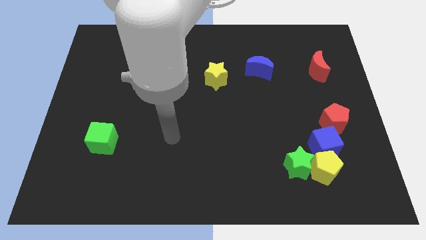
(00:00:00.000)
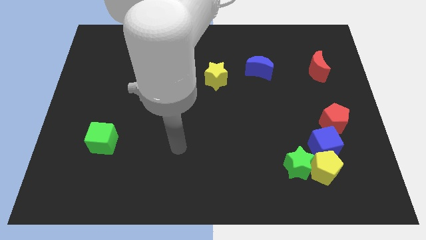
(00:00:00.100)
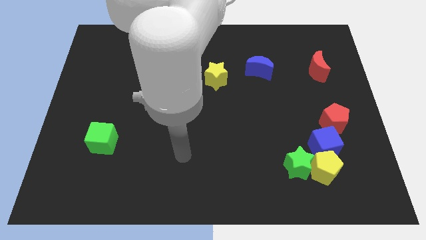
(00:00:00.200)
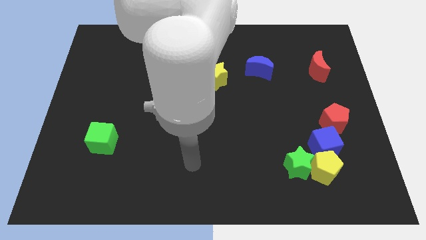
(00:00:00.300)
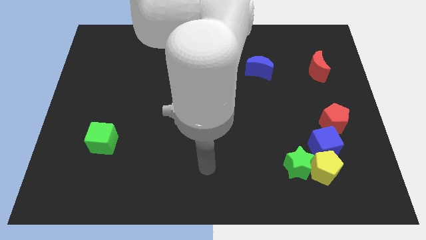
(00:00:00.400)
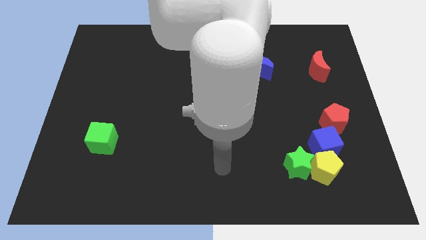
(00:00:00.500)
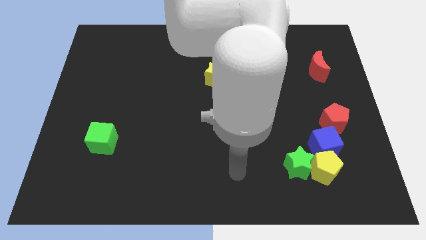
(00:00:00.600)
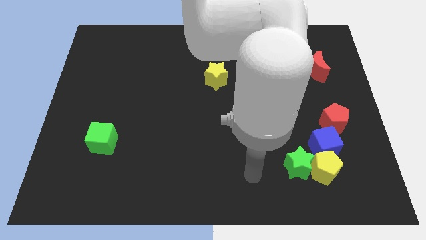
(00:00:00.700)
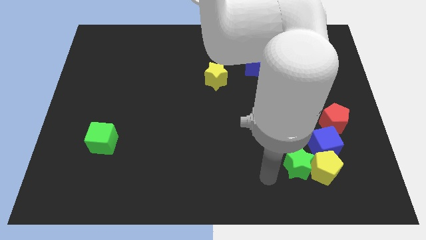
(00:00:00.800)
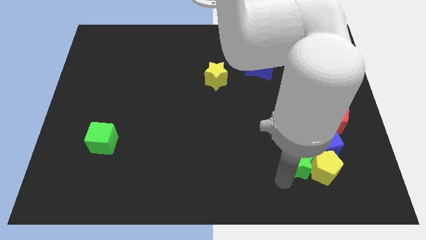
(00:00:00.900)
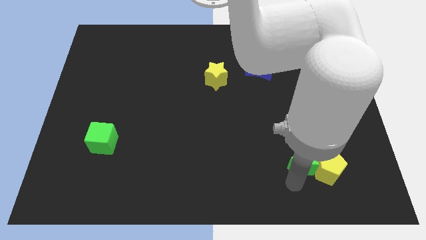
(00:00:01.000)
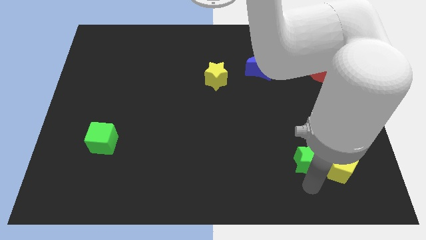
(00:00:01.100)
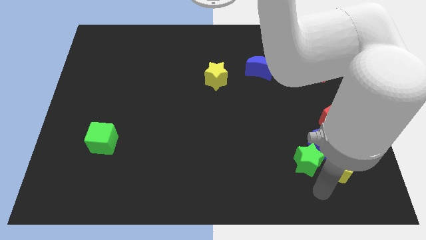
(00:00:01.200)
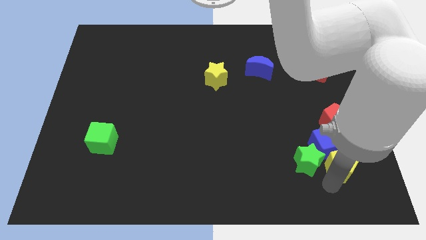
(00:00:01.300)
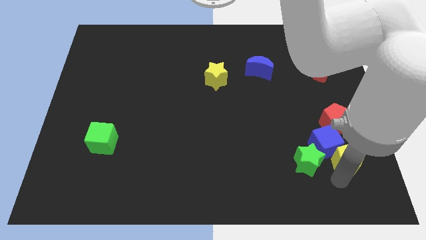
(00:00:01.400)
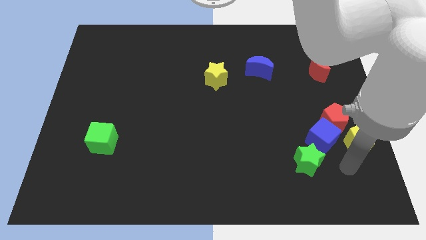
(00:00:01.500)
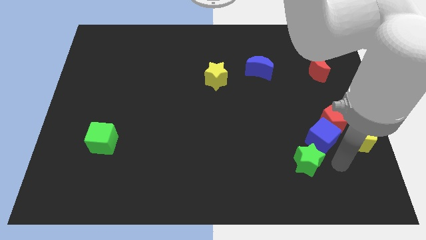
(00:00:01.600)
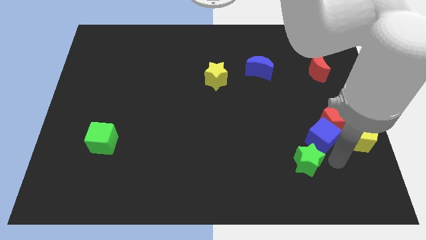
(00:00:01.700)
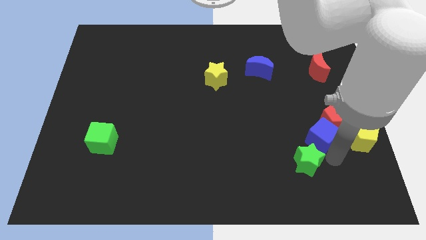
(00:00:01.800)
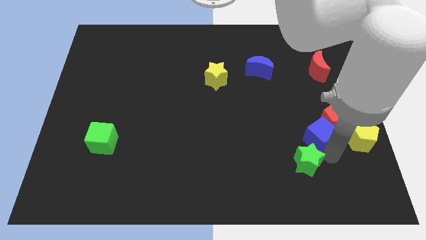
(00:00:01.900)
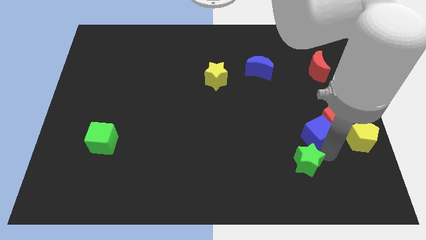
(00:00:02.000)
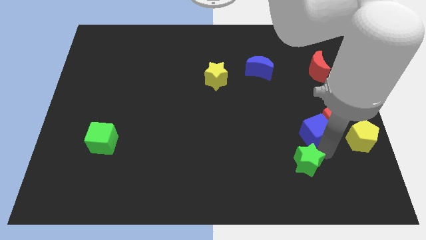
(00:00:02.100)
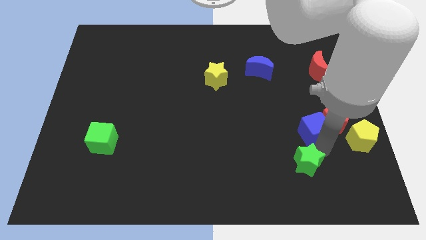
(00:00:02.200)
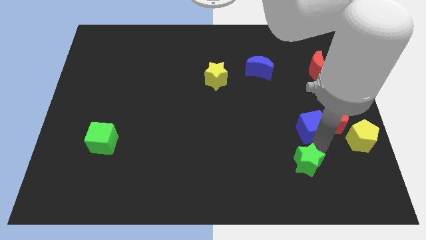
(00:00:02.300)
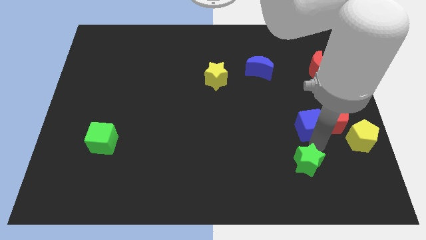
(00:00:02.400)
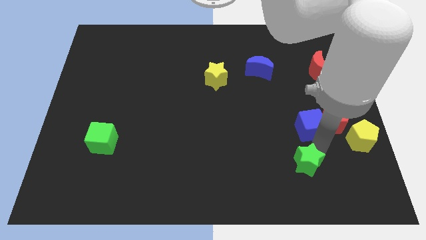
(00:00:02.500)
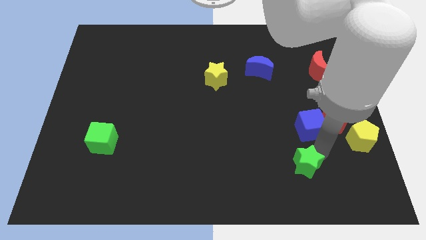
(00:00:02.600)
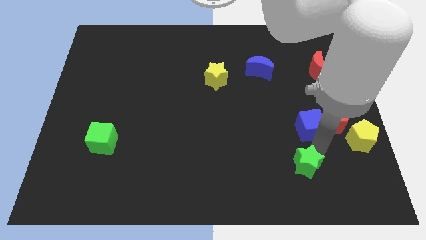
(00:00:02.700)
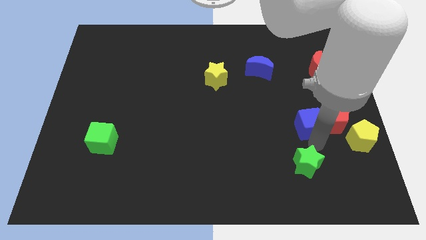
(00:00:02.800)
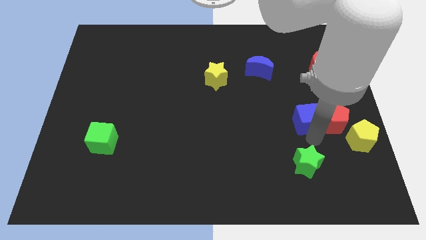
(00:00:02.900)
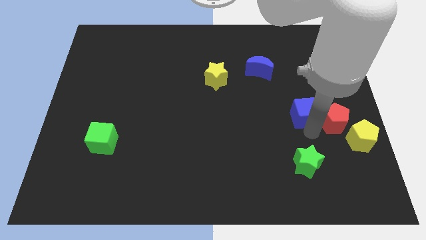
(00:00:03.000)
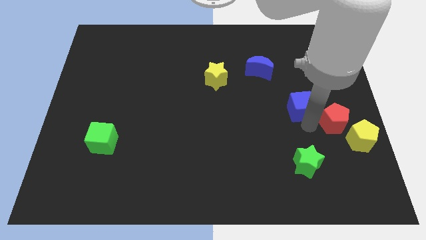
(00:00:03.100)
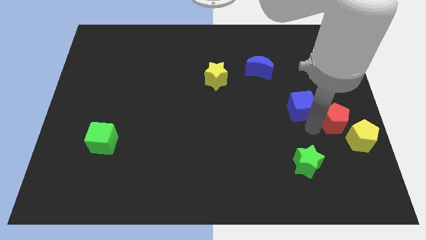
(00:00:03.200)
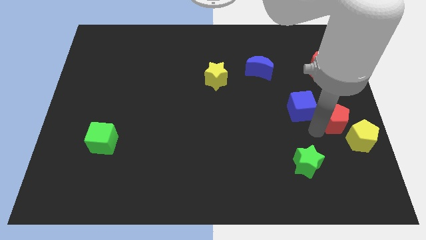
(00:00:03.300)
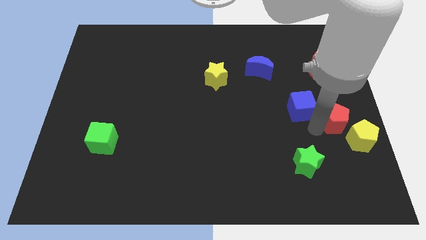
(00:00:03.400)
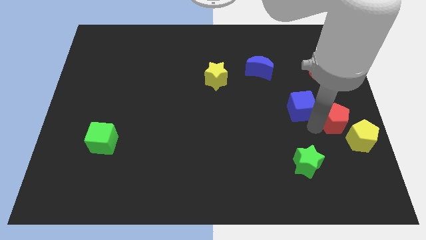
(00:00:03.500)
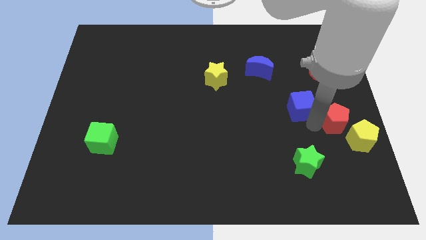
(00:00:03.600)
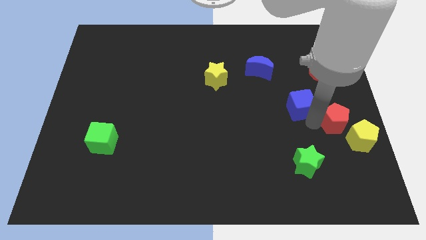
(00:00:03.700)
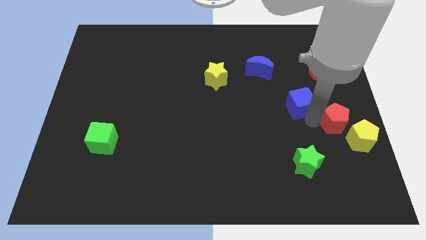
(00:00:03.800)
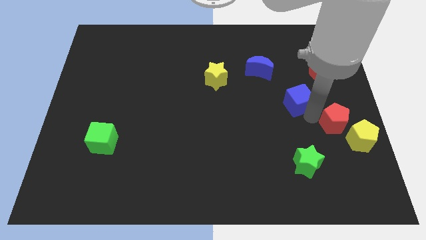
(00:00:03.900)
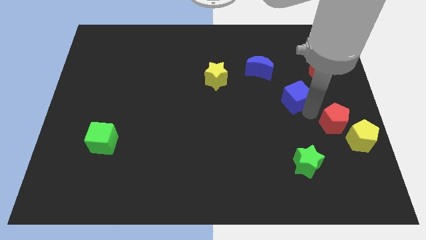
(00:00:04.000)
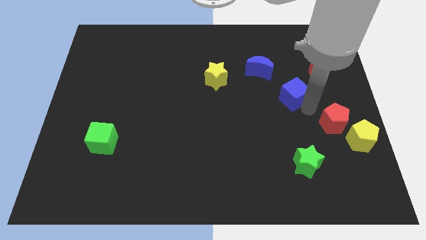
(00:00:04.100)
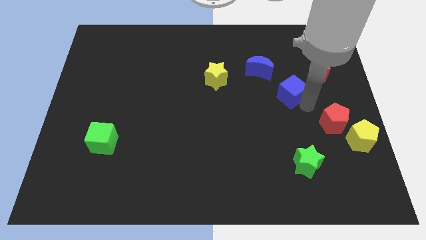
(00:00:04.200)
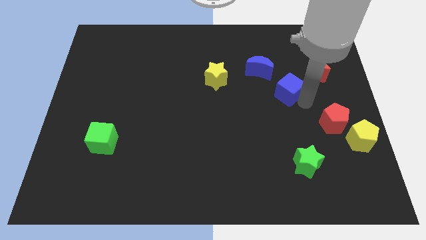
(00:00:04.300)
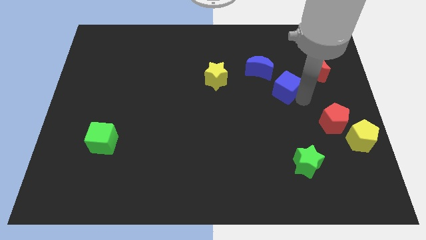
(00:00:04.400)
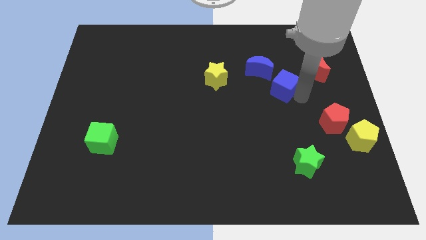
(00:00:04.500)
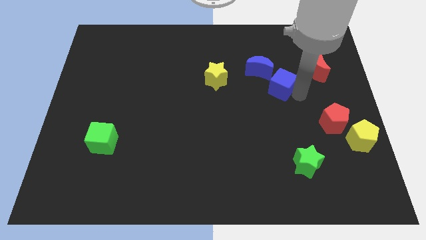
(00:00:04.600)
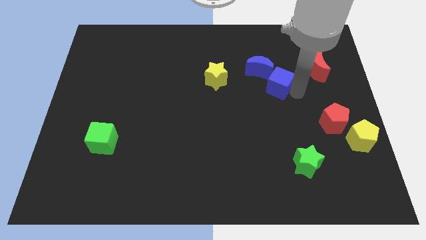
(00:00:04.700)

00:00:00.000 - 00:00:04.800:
slide the blue cube to the right side of the yellow star

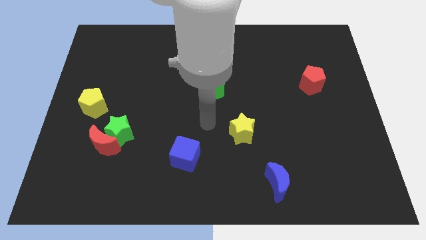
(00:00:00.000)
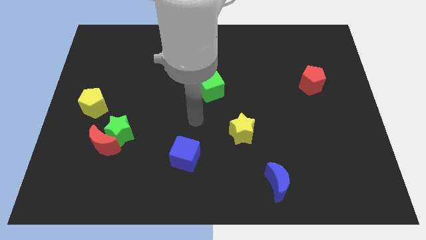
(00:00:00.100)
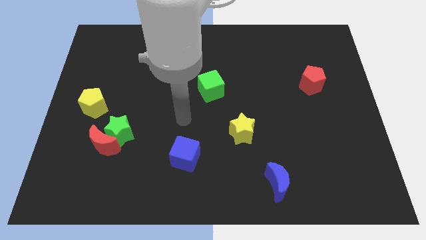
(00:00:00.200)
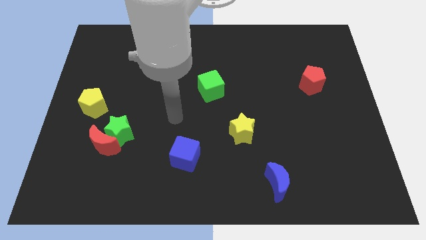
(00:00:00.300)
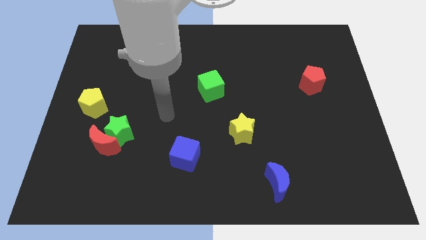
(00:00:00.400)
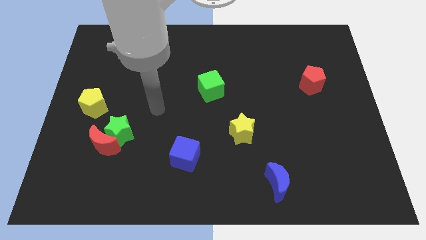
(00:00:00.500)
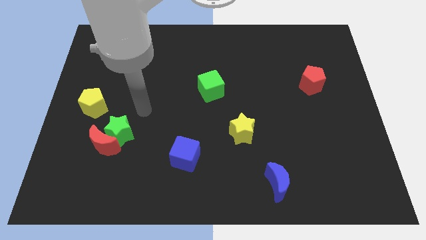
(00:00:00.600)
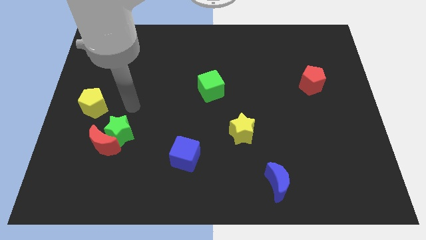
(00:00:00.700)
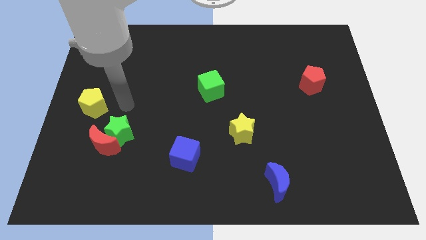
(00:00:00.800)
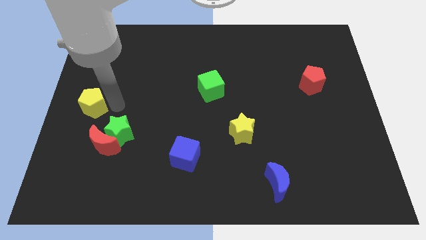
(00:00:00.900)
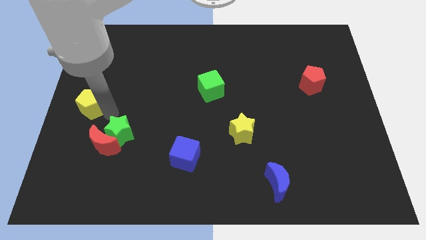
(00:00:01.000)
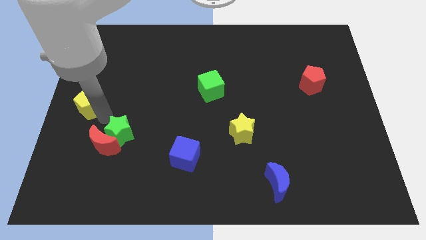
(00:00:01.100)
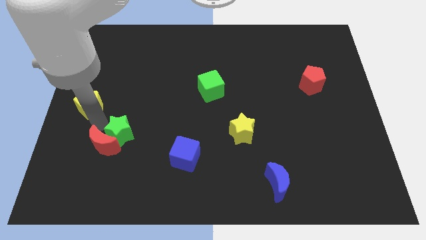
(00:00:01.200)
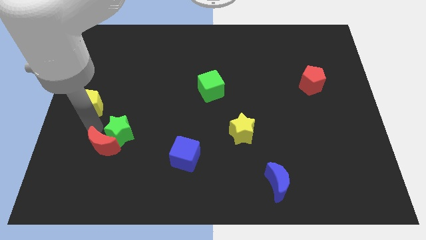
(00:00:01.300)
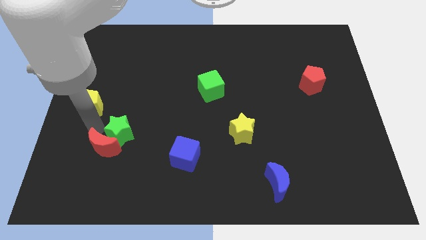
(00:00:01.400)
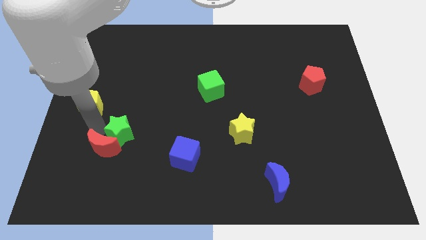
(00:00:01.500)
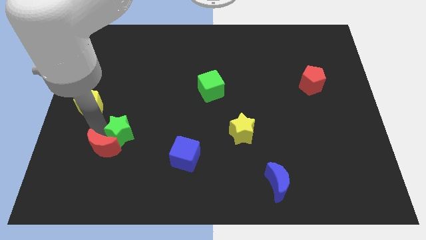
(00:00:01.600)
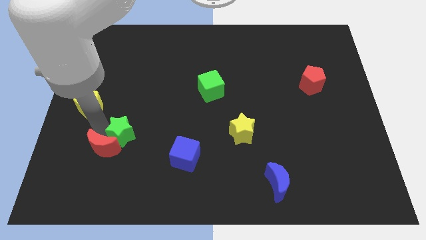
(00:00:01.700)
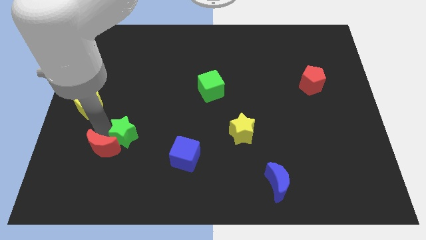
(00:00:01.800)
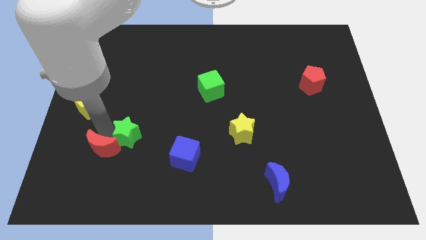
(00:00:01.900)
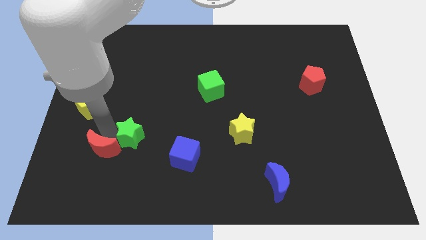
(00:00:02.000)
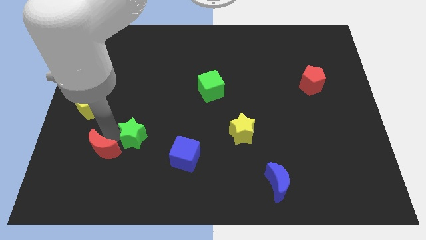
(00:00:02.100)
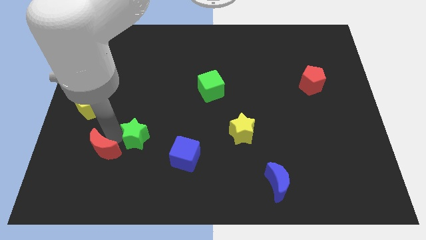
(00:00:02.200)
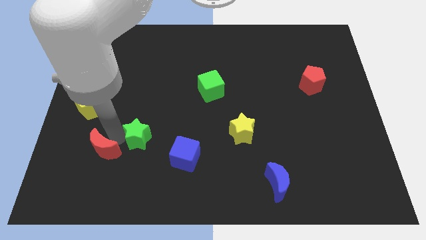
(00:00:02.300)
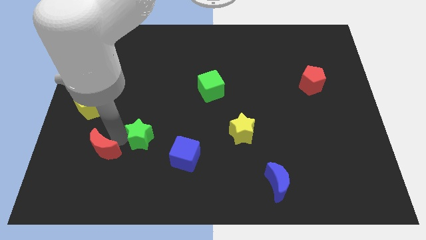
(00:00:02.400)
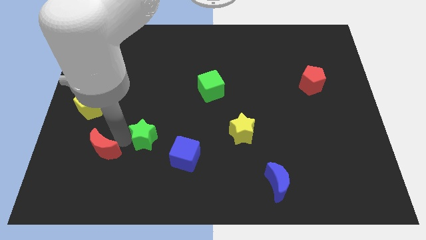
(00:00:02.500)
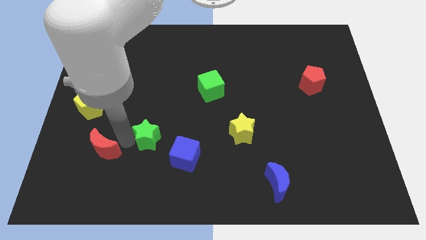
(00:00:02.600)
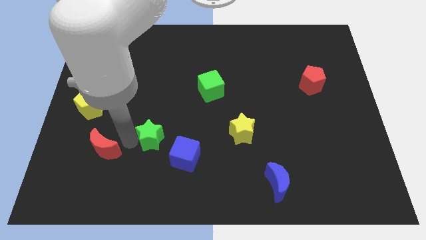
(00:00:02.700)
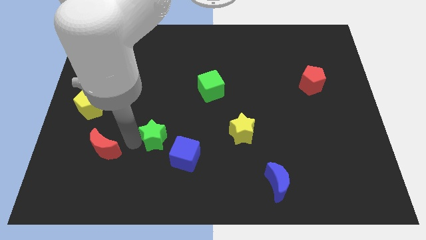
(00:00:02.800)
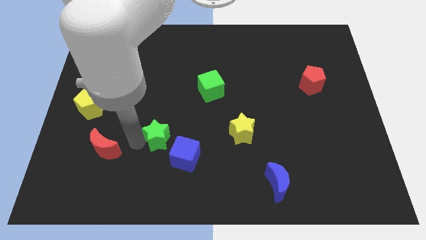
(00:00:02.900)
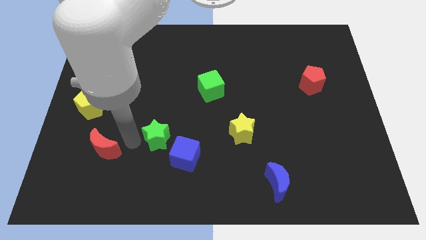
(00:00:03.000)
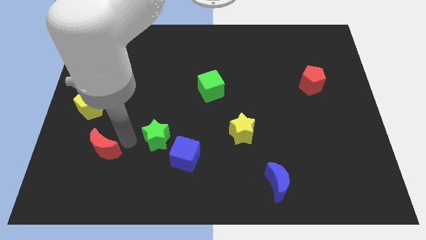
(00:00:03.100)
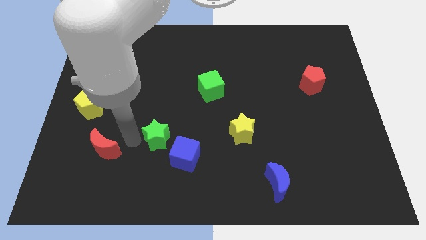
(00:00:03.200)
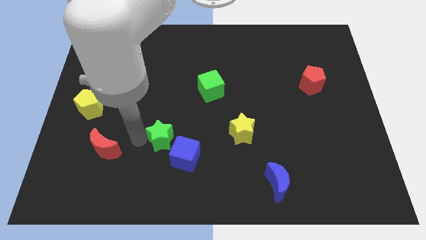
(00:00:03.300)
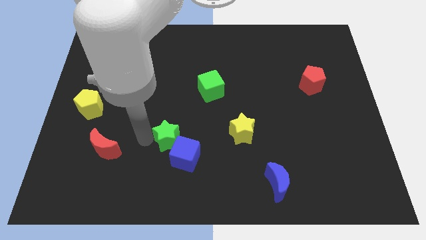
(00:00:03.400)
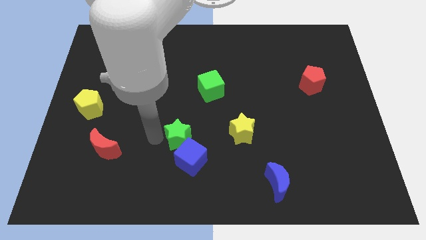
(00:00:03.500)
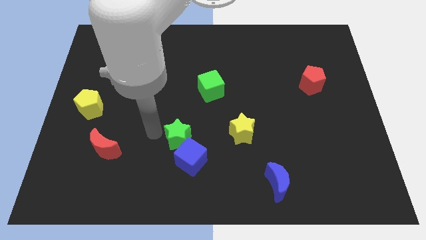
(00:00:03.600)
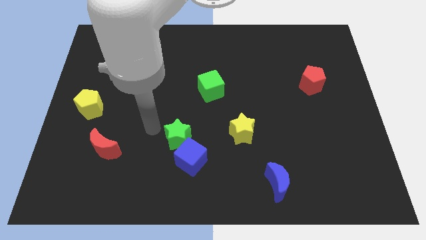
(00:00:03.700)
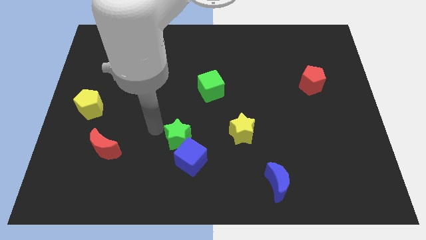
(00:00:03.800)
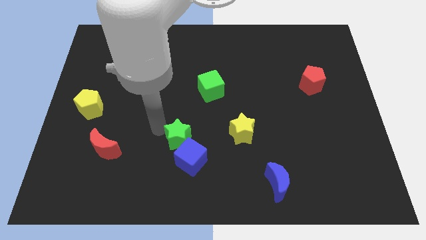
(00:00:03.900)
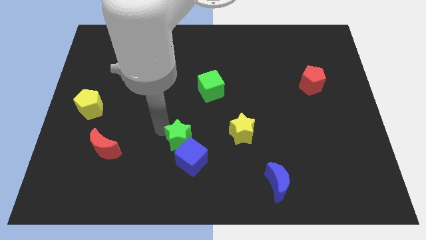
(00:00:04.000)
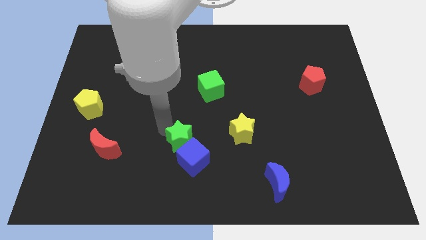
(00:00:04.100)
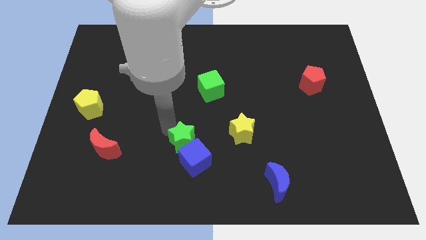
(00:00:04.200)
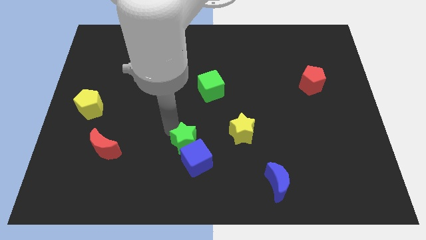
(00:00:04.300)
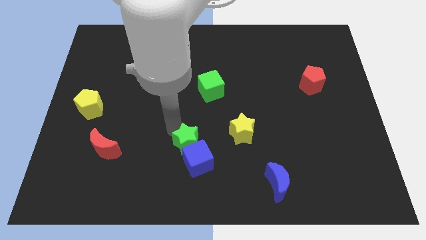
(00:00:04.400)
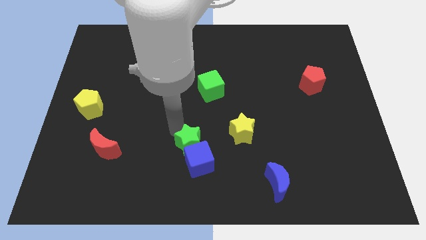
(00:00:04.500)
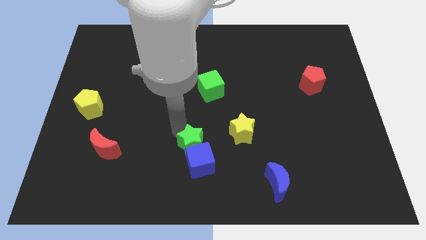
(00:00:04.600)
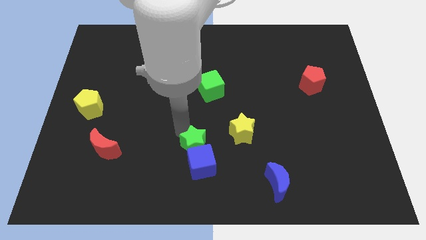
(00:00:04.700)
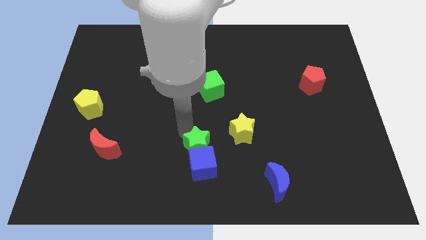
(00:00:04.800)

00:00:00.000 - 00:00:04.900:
slide the green star diagonally down and to the left of the yellow star
